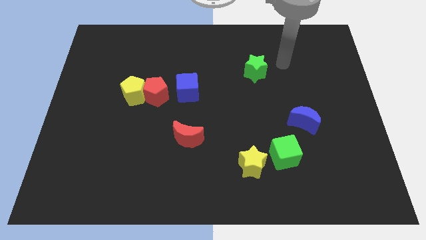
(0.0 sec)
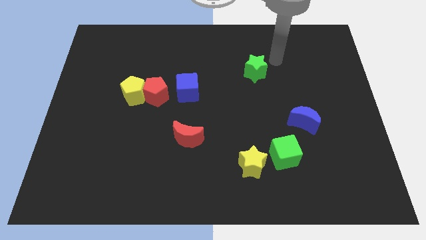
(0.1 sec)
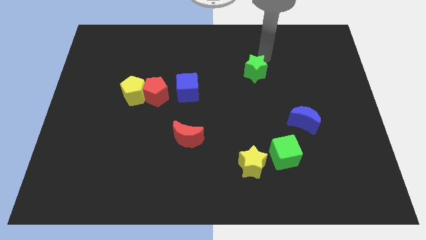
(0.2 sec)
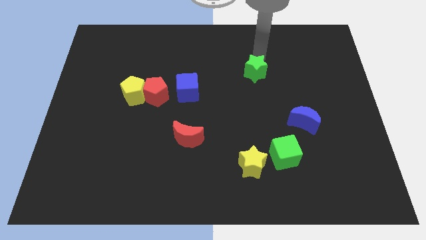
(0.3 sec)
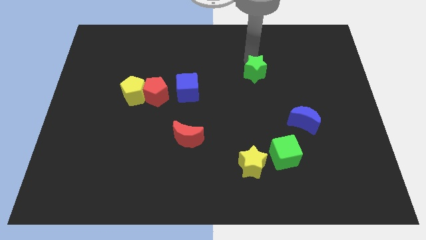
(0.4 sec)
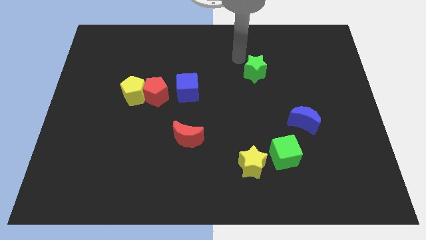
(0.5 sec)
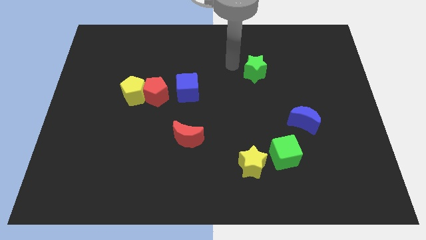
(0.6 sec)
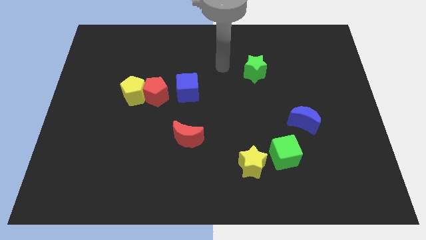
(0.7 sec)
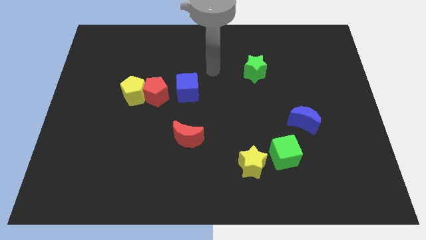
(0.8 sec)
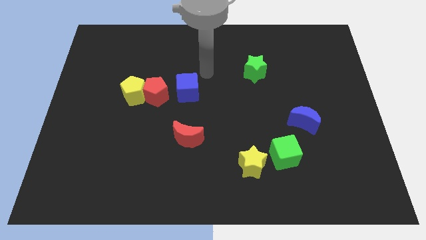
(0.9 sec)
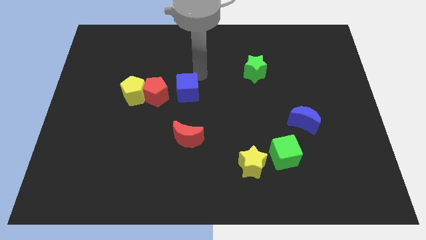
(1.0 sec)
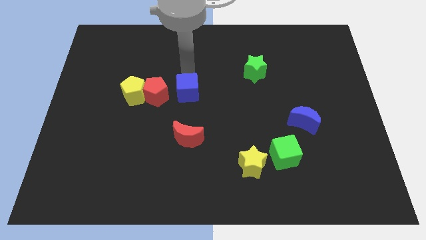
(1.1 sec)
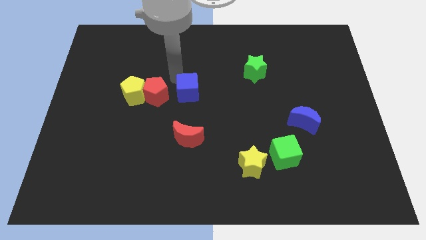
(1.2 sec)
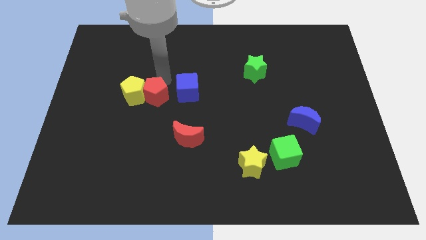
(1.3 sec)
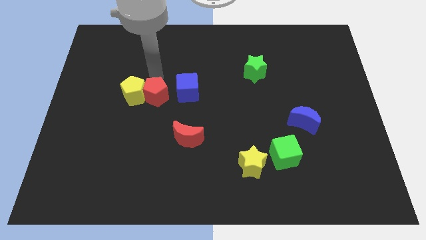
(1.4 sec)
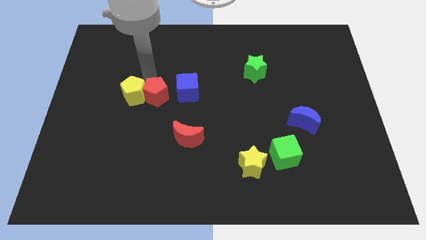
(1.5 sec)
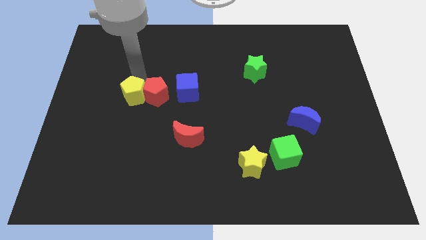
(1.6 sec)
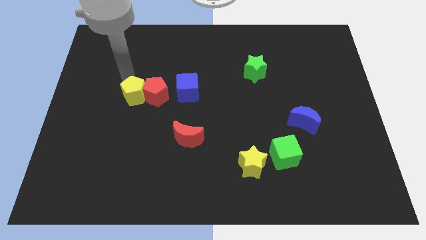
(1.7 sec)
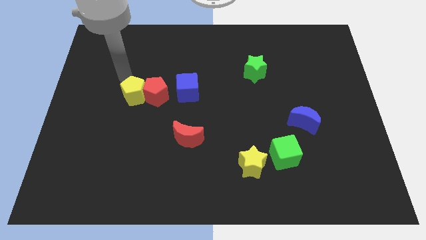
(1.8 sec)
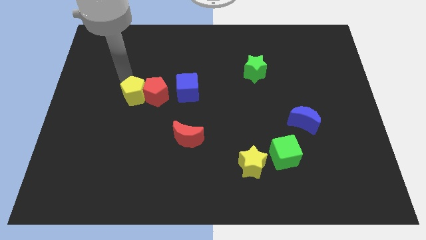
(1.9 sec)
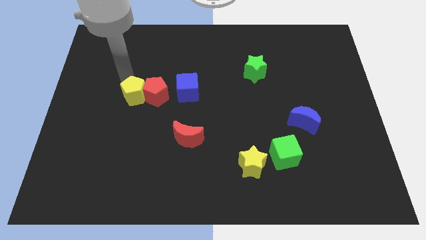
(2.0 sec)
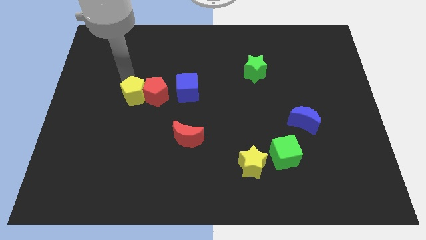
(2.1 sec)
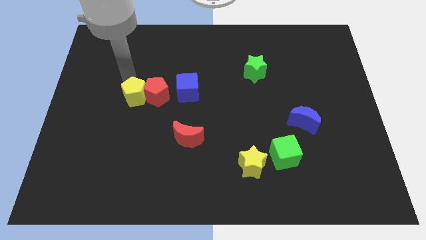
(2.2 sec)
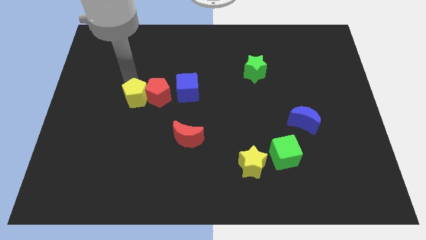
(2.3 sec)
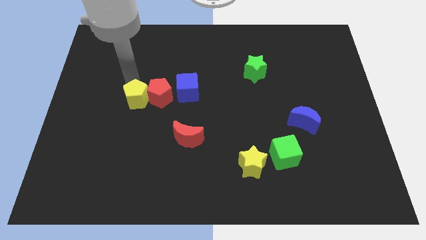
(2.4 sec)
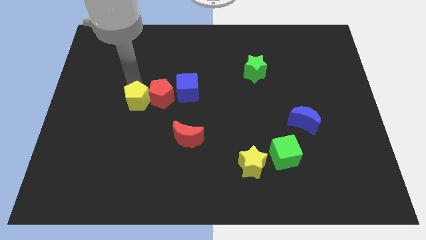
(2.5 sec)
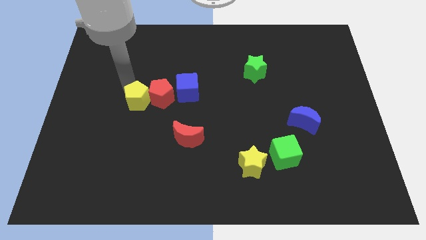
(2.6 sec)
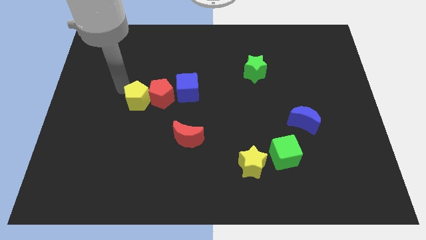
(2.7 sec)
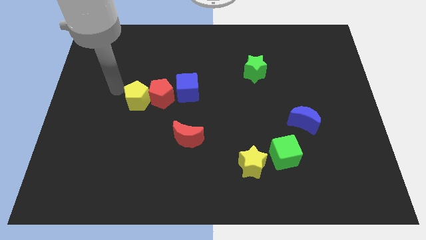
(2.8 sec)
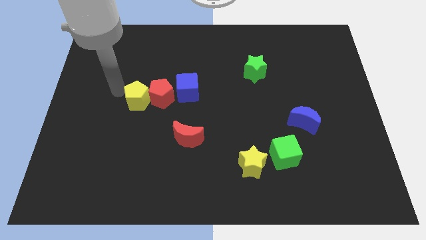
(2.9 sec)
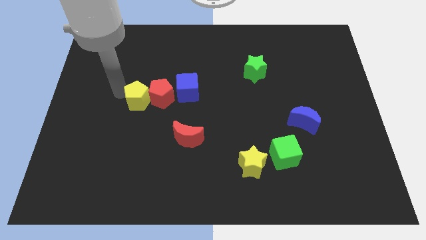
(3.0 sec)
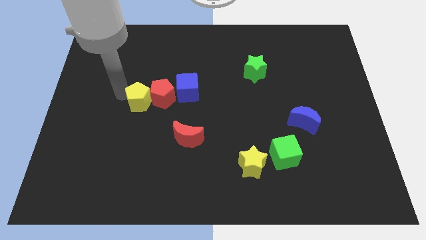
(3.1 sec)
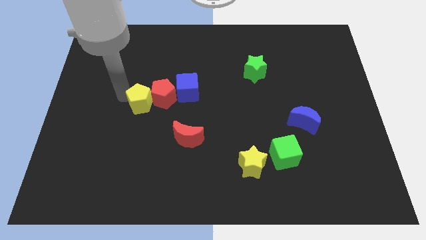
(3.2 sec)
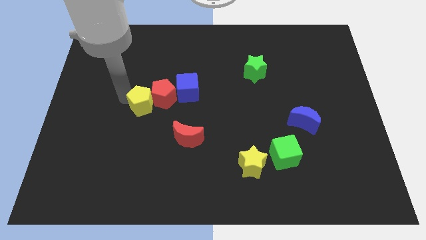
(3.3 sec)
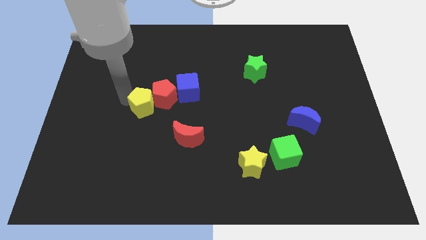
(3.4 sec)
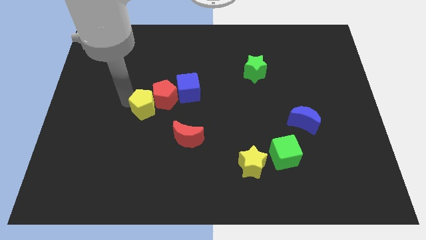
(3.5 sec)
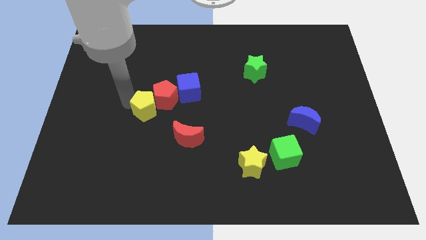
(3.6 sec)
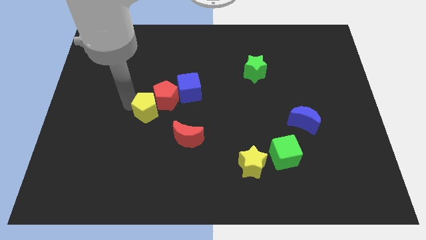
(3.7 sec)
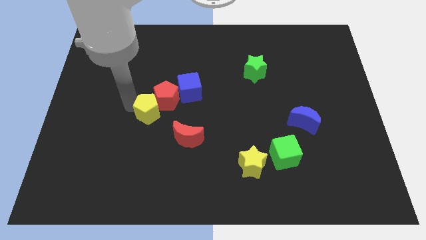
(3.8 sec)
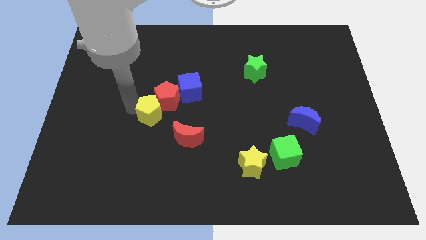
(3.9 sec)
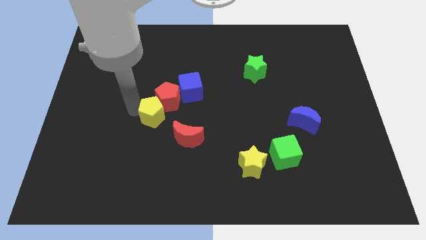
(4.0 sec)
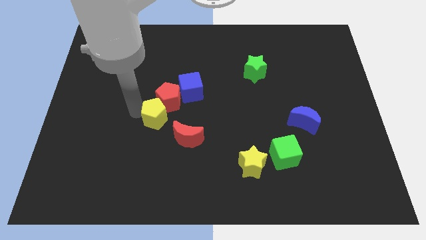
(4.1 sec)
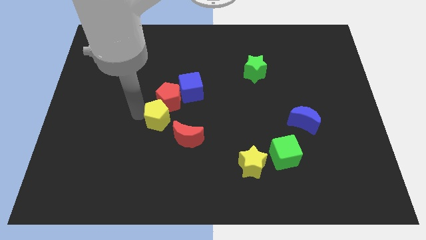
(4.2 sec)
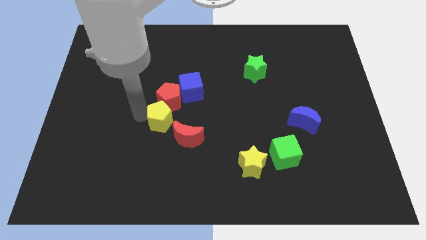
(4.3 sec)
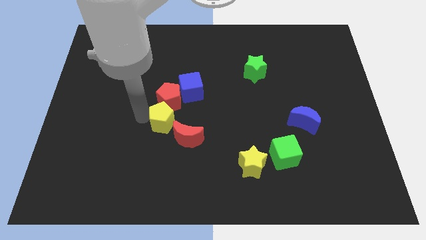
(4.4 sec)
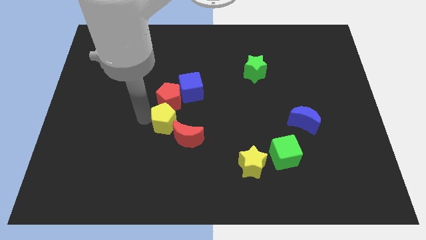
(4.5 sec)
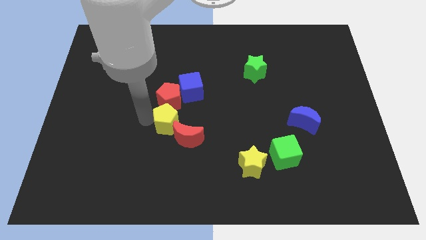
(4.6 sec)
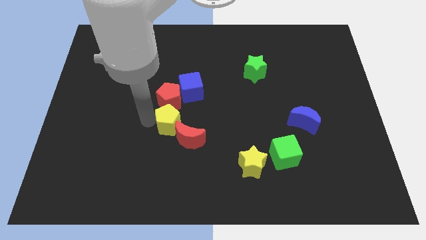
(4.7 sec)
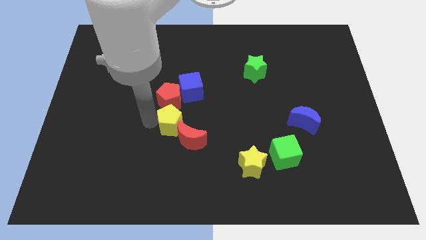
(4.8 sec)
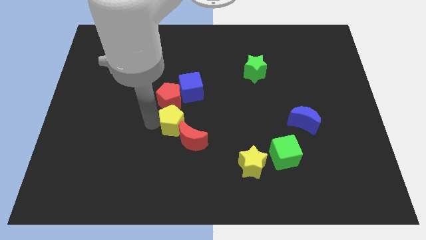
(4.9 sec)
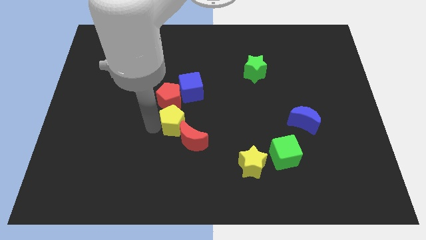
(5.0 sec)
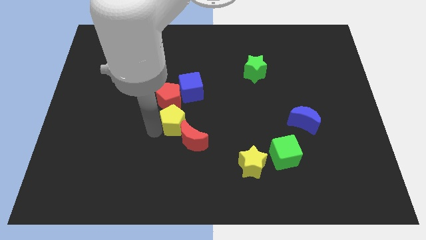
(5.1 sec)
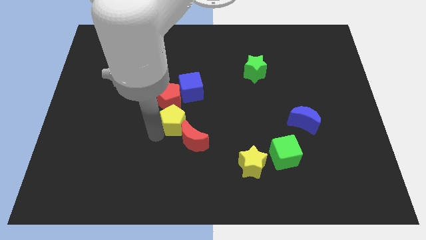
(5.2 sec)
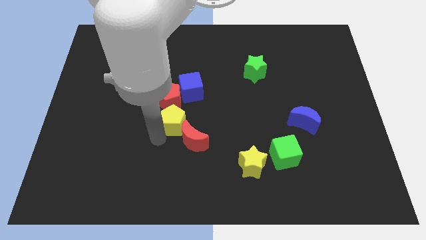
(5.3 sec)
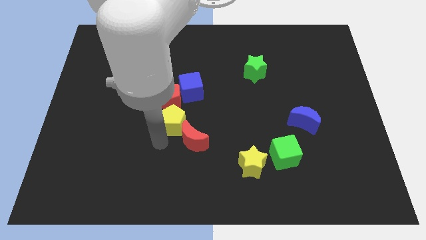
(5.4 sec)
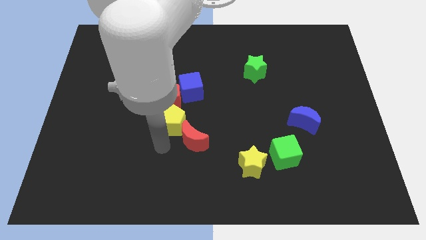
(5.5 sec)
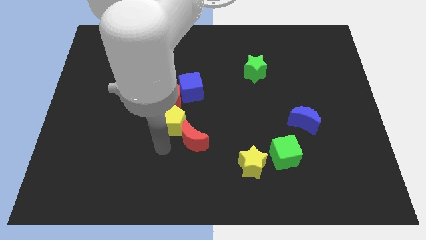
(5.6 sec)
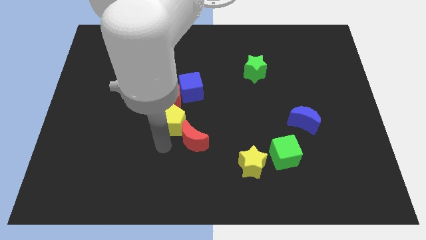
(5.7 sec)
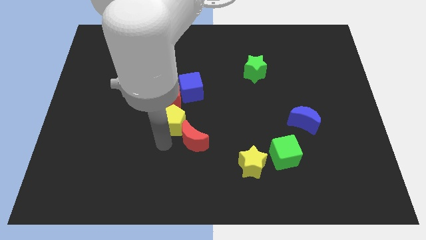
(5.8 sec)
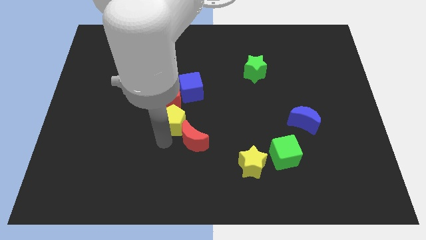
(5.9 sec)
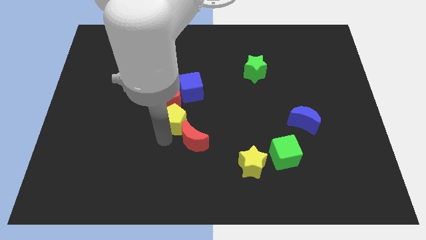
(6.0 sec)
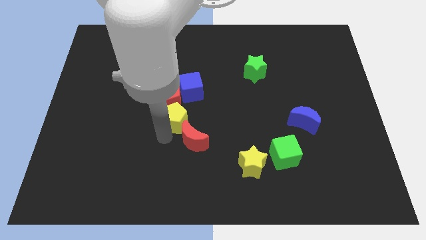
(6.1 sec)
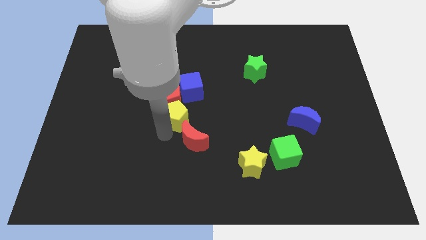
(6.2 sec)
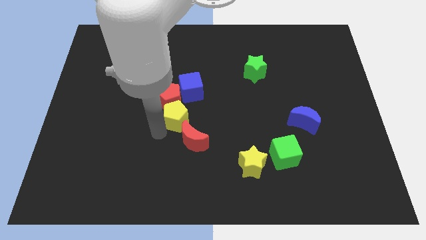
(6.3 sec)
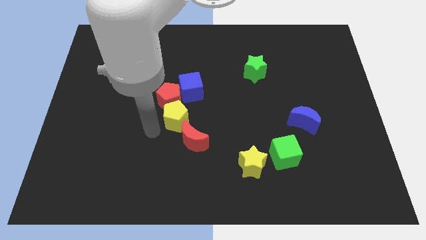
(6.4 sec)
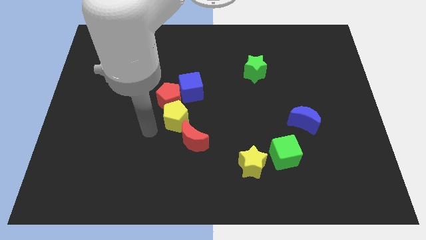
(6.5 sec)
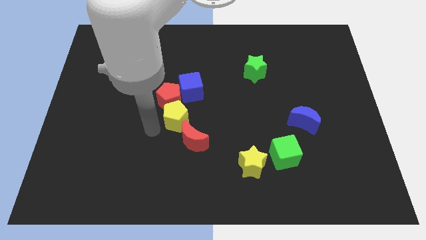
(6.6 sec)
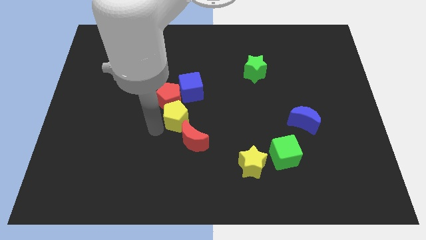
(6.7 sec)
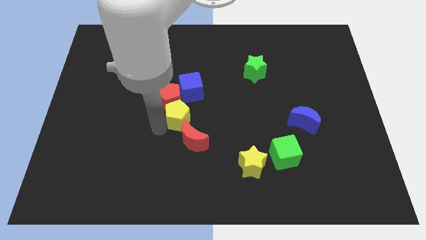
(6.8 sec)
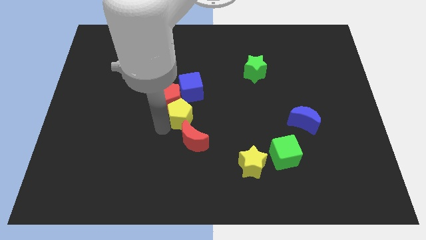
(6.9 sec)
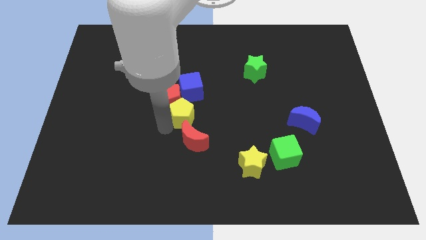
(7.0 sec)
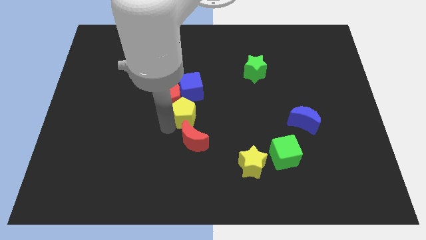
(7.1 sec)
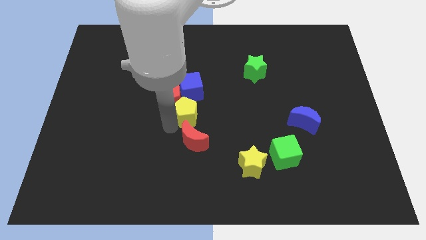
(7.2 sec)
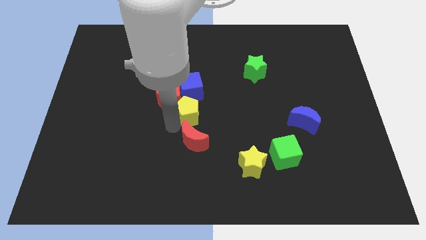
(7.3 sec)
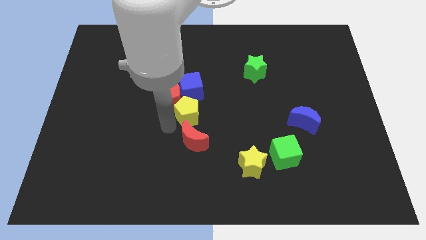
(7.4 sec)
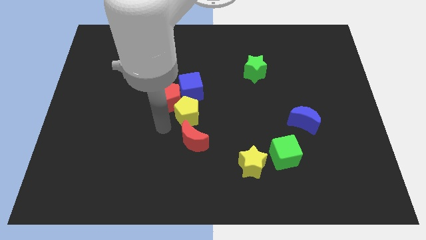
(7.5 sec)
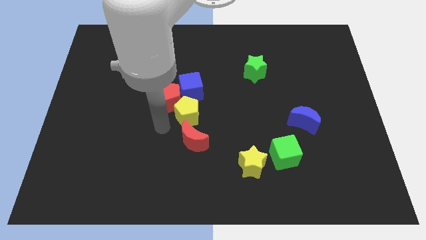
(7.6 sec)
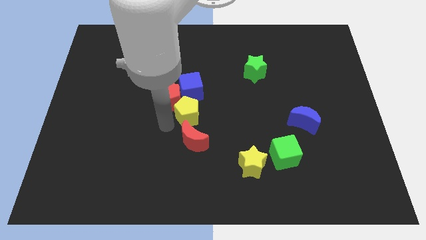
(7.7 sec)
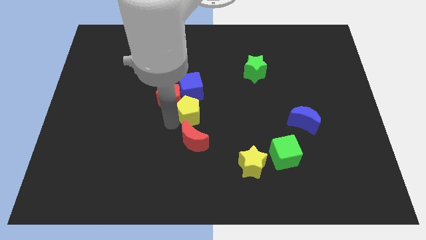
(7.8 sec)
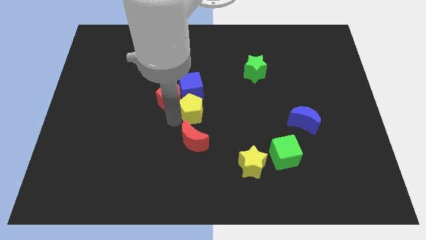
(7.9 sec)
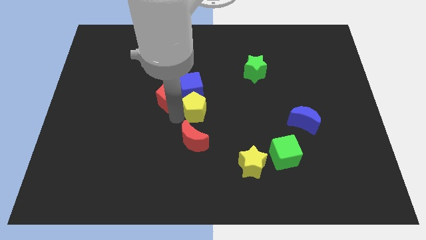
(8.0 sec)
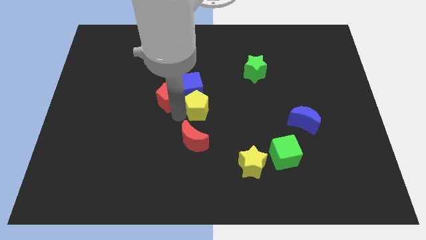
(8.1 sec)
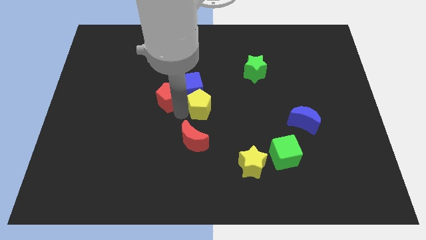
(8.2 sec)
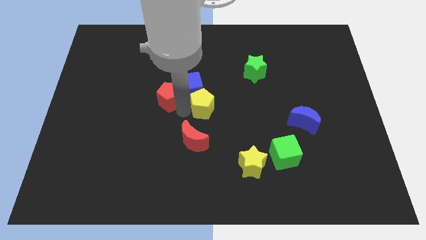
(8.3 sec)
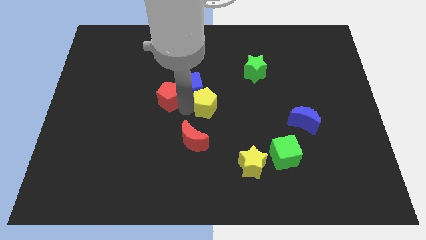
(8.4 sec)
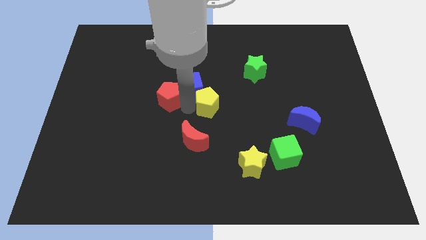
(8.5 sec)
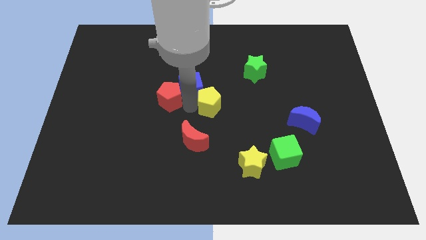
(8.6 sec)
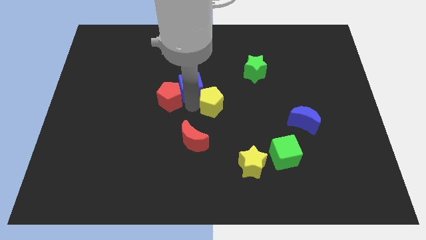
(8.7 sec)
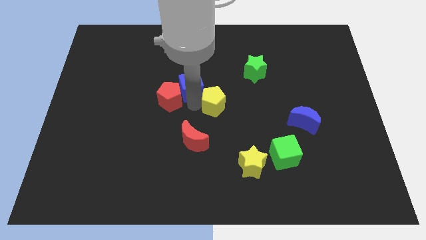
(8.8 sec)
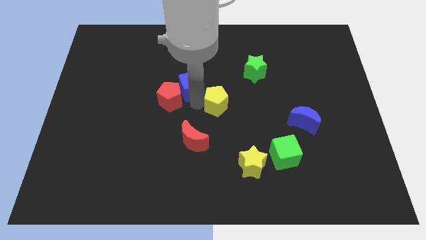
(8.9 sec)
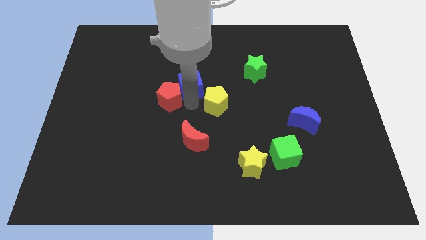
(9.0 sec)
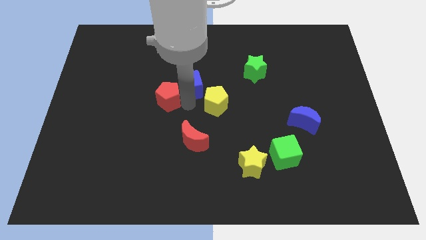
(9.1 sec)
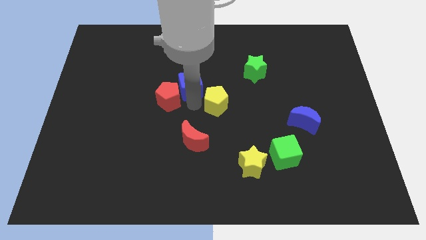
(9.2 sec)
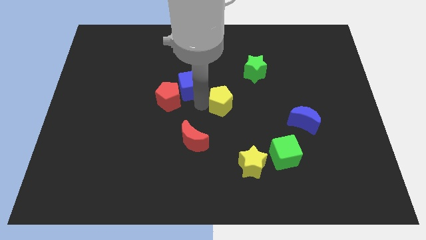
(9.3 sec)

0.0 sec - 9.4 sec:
move the yellow pentagon to the right
